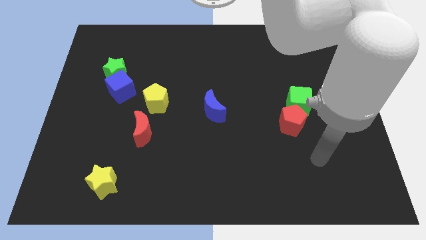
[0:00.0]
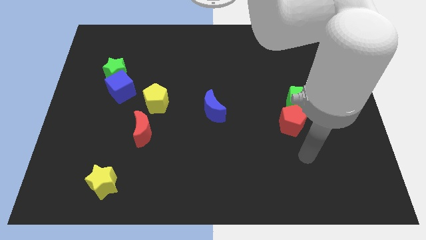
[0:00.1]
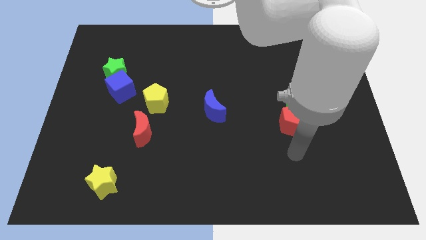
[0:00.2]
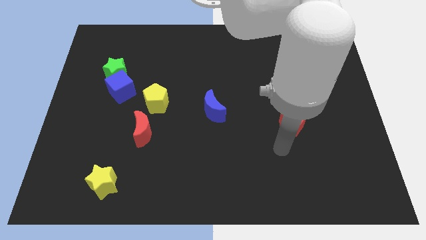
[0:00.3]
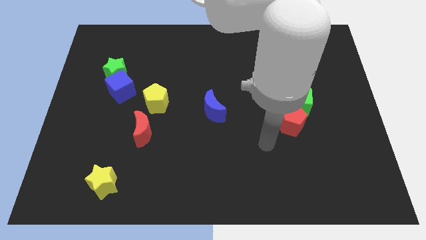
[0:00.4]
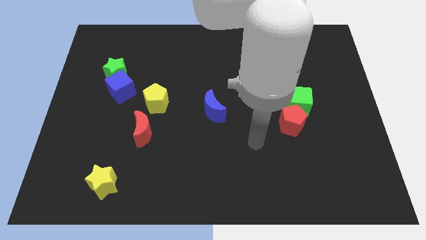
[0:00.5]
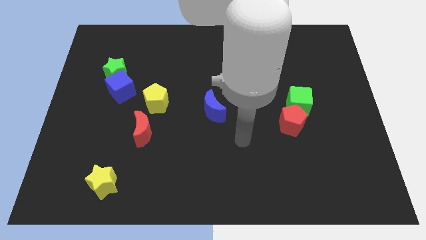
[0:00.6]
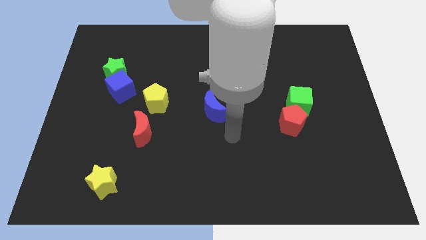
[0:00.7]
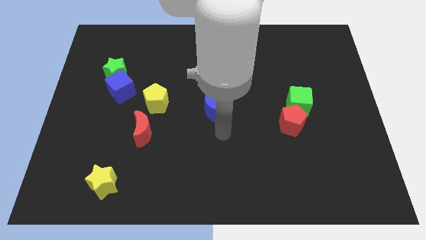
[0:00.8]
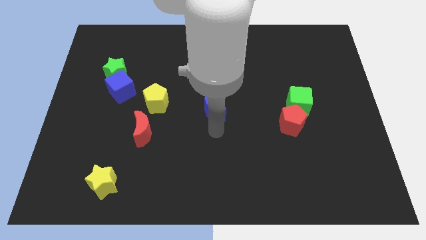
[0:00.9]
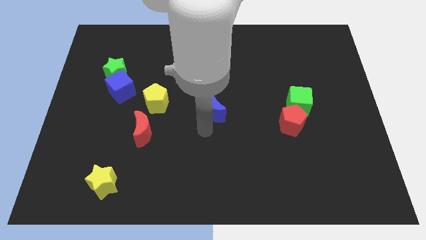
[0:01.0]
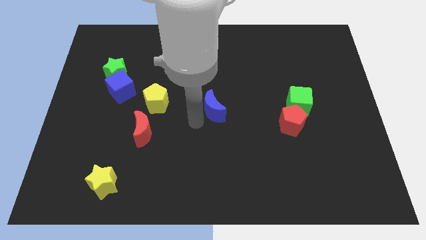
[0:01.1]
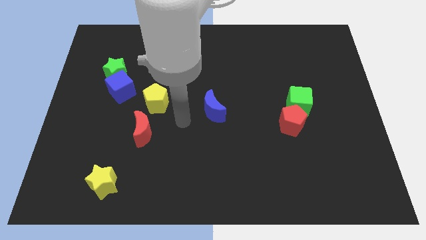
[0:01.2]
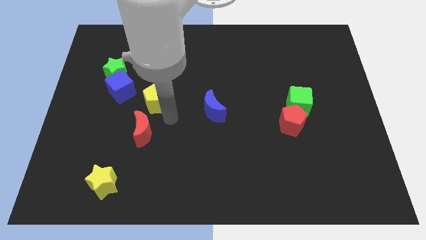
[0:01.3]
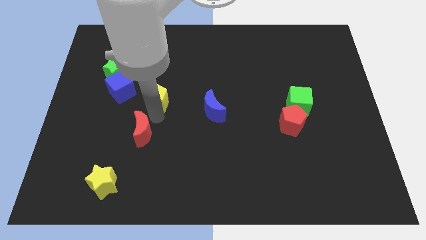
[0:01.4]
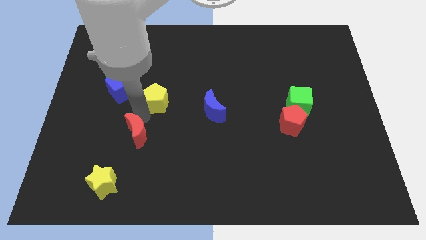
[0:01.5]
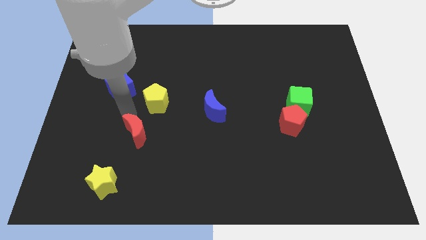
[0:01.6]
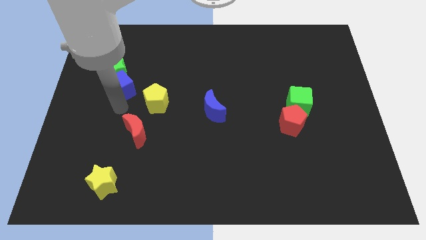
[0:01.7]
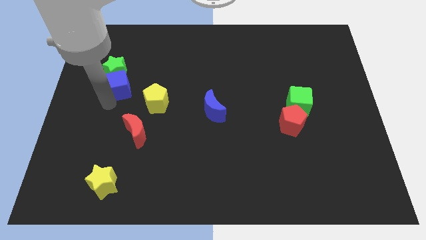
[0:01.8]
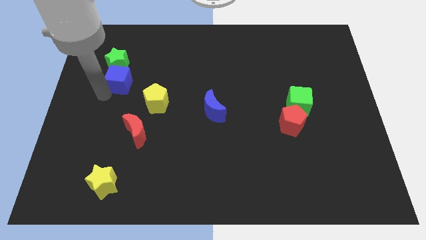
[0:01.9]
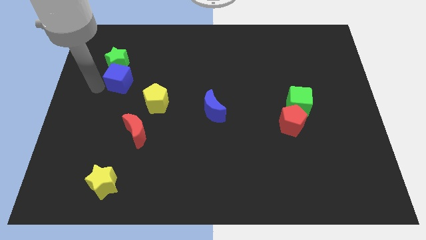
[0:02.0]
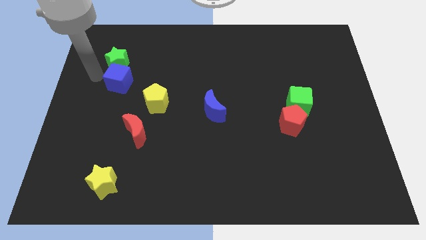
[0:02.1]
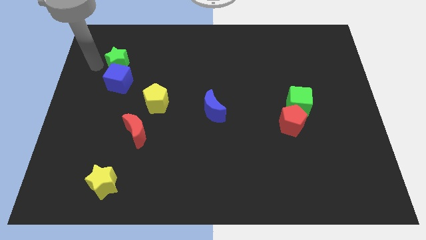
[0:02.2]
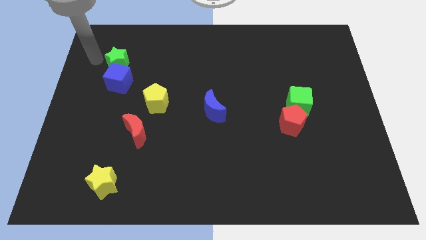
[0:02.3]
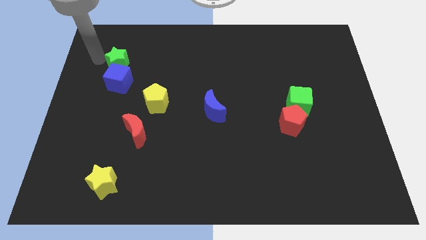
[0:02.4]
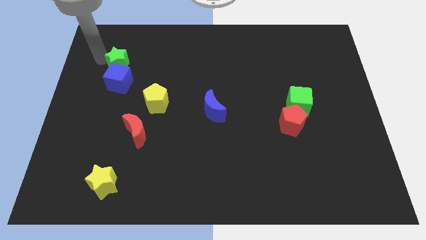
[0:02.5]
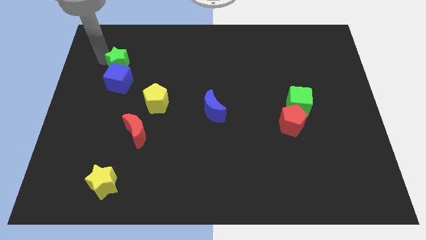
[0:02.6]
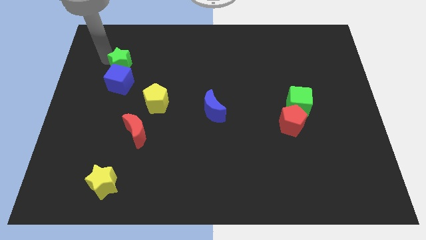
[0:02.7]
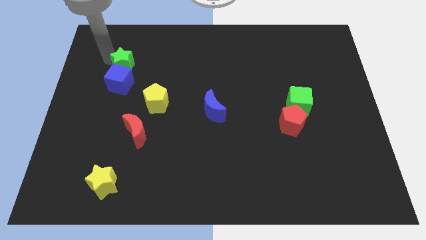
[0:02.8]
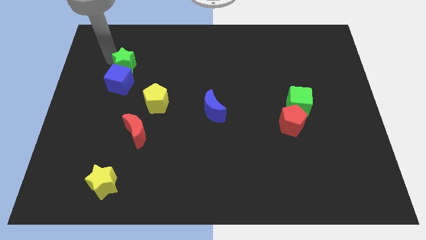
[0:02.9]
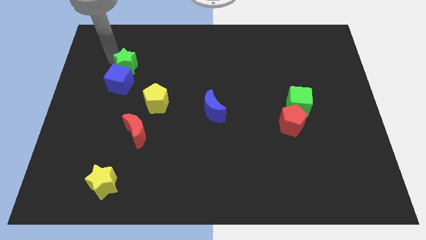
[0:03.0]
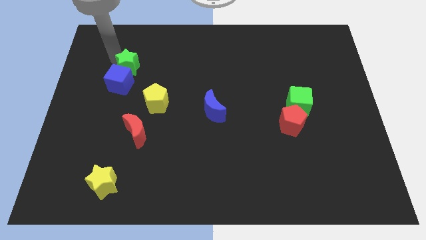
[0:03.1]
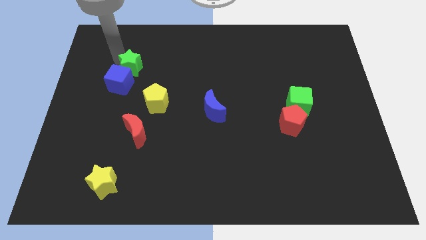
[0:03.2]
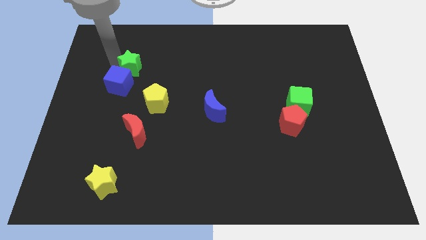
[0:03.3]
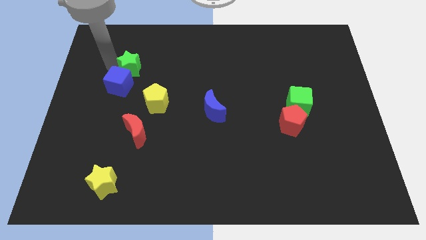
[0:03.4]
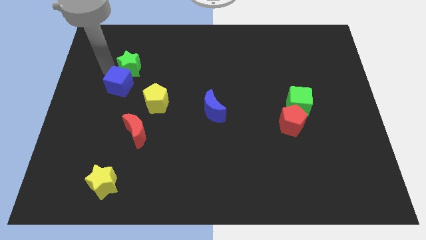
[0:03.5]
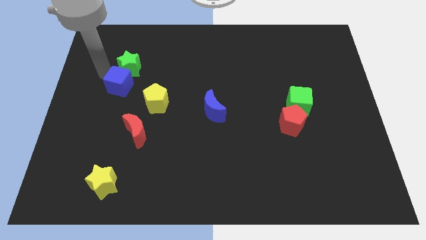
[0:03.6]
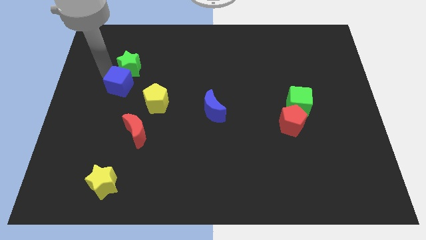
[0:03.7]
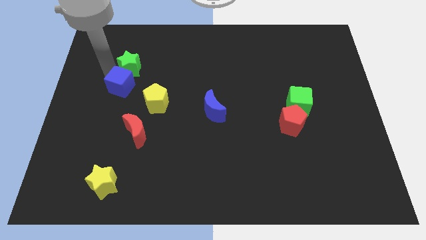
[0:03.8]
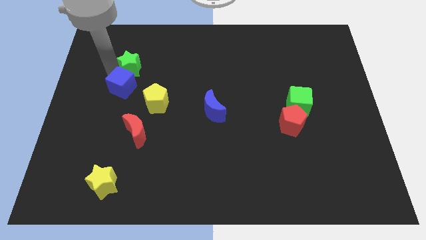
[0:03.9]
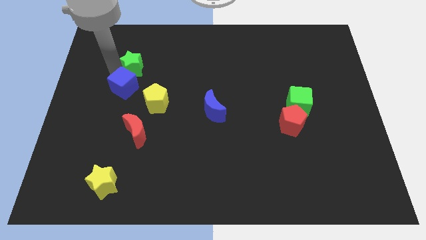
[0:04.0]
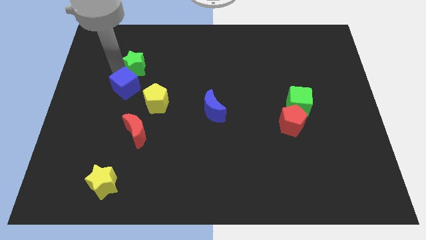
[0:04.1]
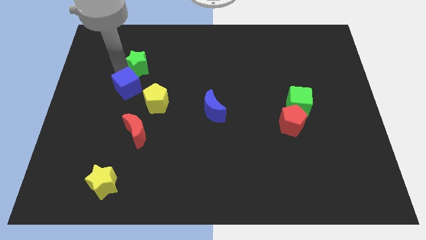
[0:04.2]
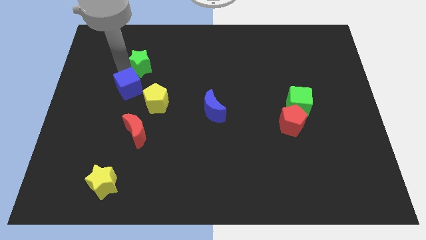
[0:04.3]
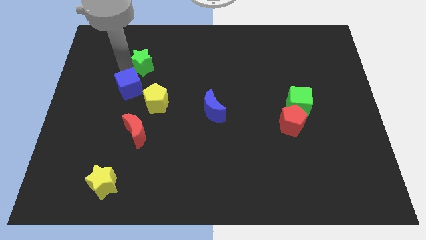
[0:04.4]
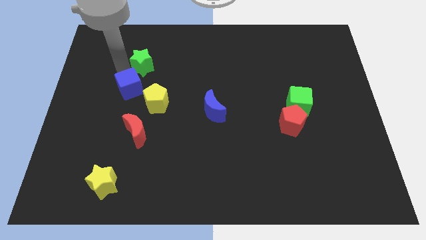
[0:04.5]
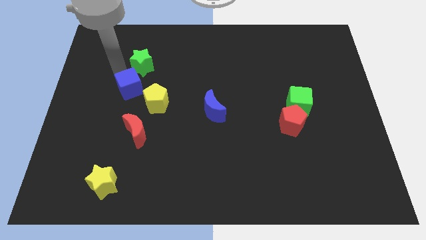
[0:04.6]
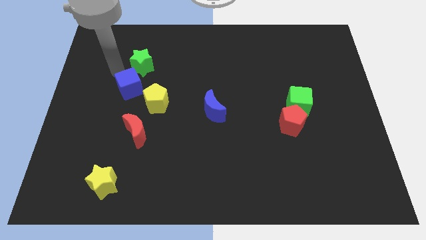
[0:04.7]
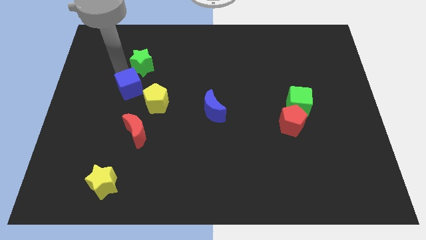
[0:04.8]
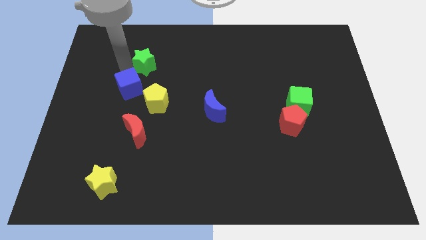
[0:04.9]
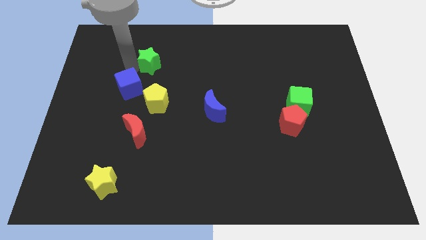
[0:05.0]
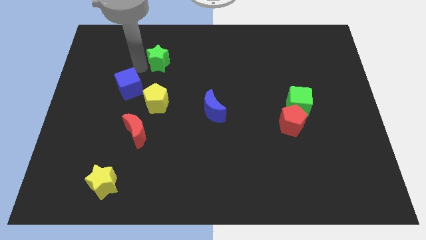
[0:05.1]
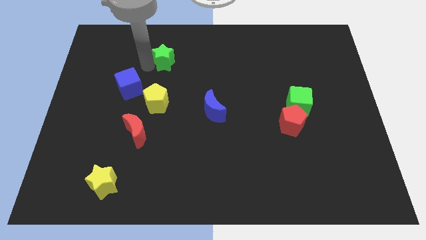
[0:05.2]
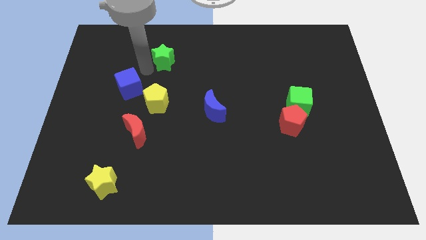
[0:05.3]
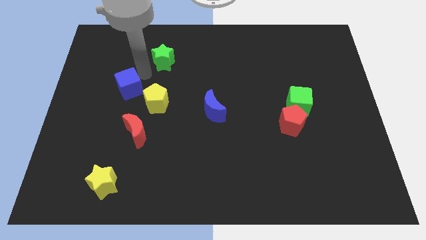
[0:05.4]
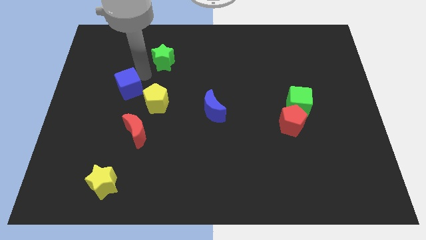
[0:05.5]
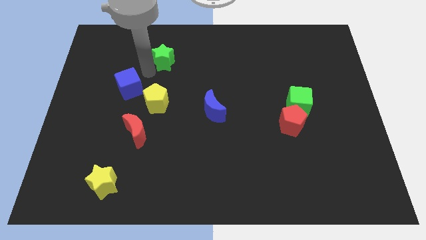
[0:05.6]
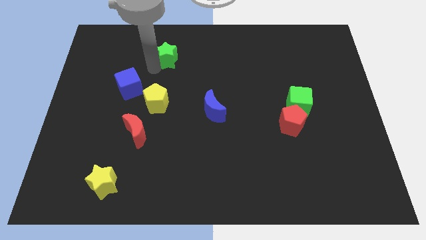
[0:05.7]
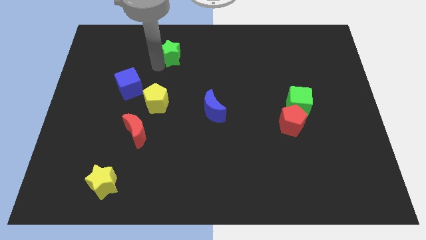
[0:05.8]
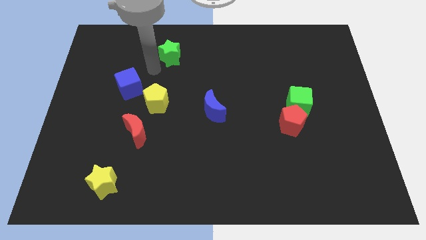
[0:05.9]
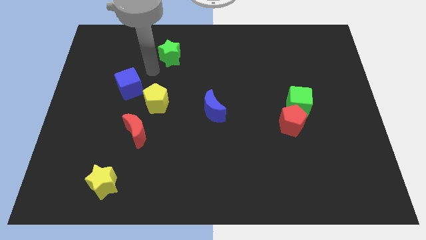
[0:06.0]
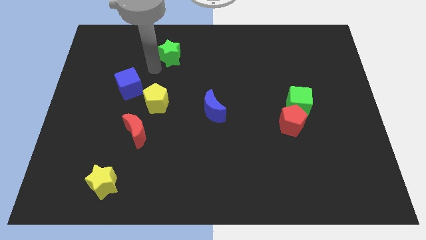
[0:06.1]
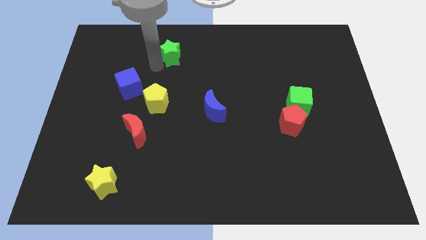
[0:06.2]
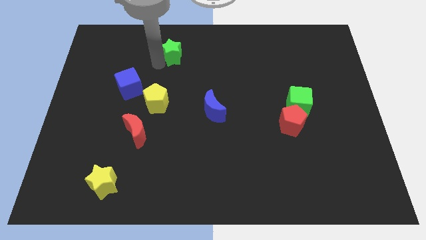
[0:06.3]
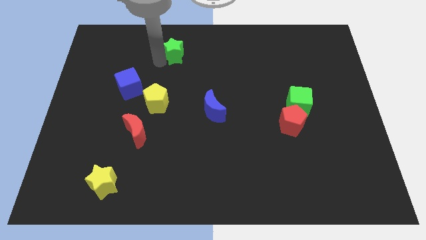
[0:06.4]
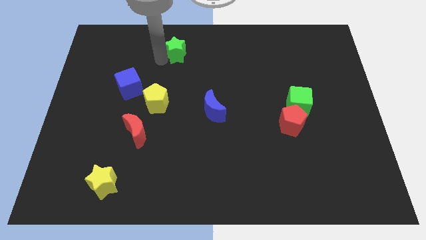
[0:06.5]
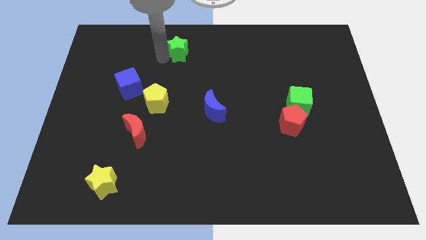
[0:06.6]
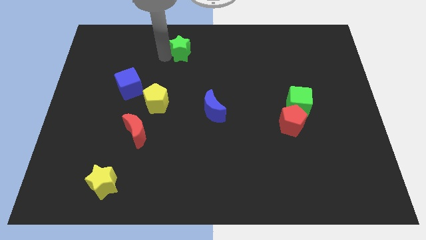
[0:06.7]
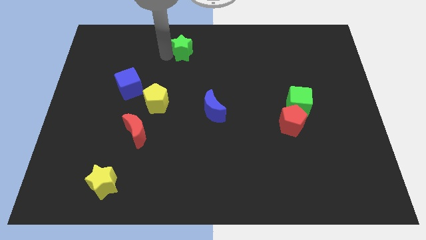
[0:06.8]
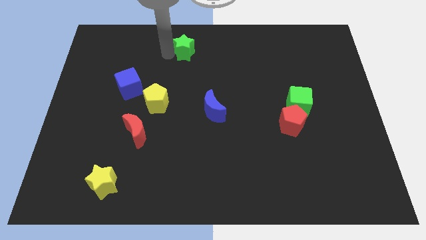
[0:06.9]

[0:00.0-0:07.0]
put the green star to the top

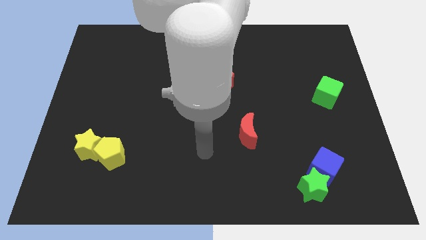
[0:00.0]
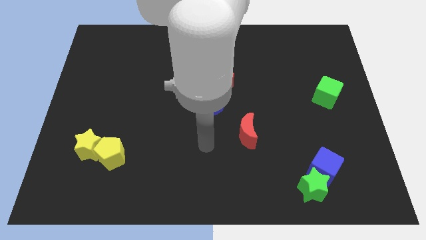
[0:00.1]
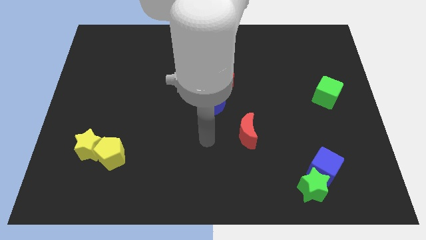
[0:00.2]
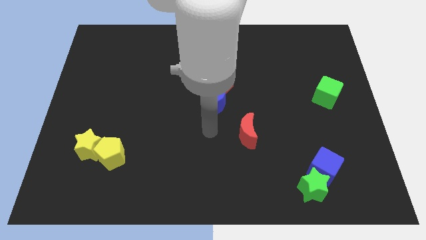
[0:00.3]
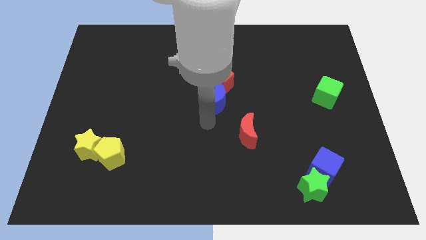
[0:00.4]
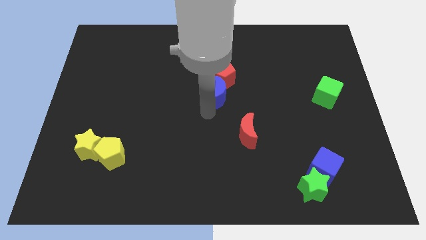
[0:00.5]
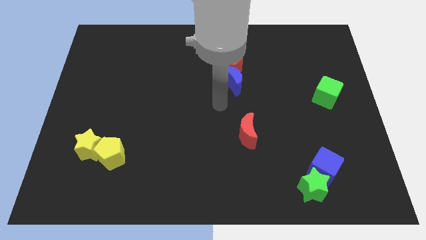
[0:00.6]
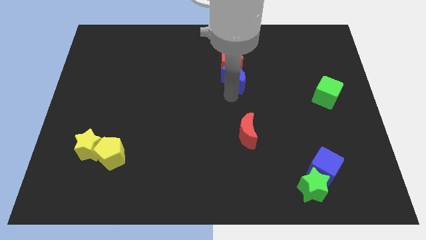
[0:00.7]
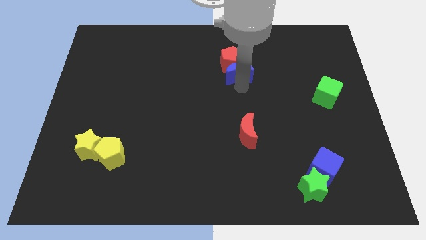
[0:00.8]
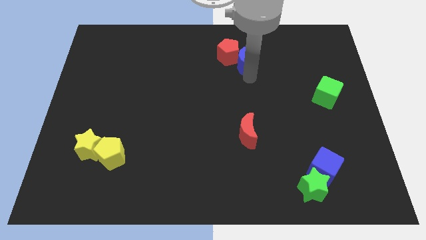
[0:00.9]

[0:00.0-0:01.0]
push the red pentagon to the top side
